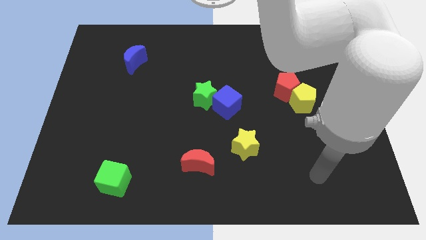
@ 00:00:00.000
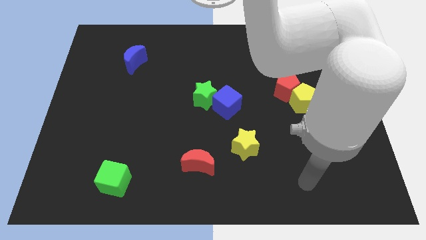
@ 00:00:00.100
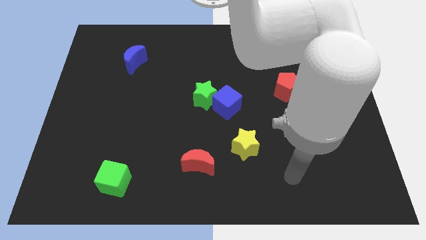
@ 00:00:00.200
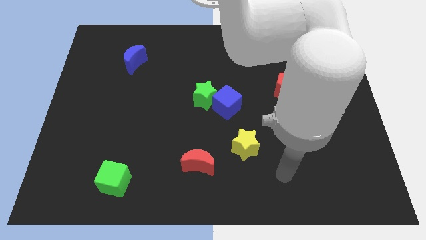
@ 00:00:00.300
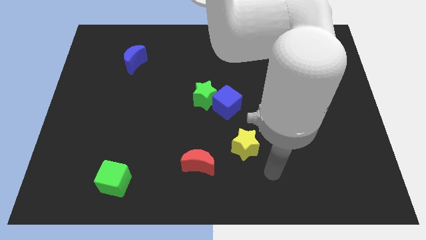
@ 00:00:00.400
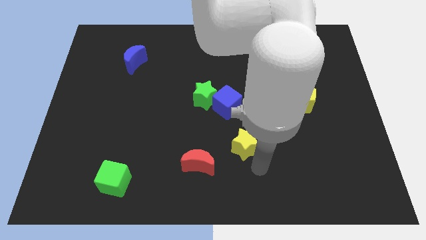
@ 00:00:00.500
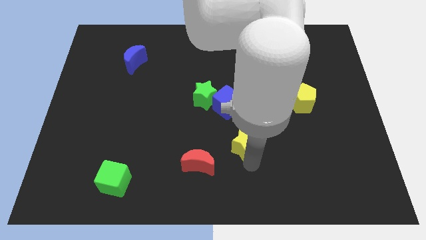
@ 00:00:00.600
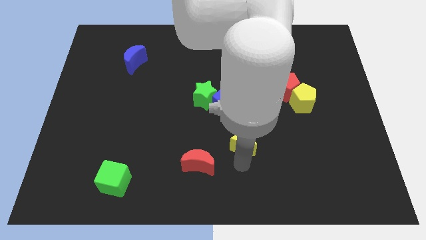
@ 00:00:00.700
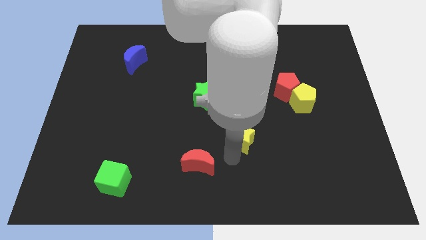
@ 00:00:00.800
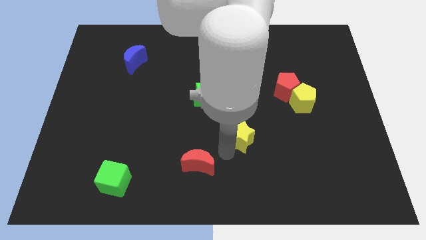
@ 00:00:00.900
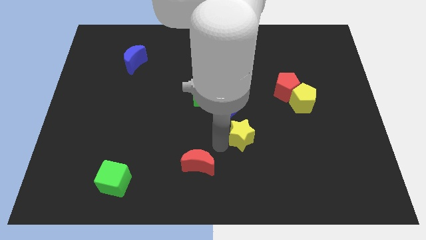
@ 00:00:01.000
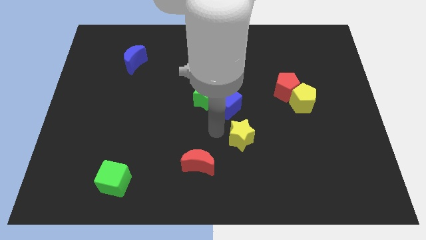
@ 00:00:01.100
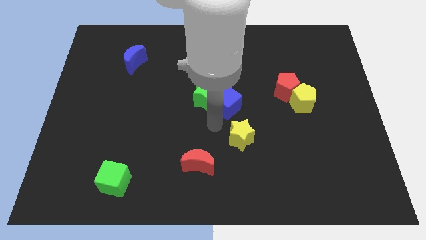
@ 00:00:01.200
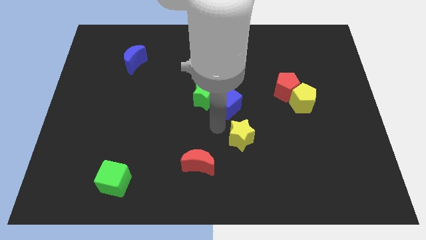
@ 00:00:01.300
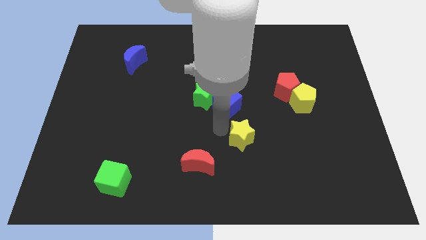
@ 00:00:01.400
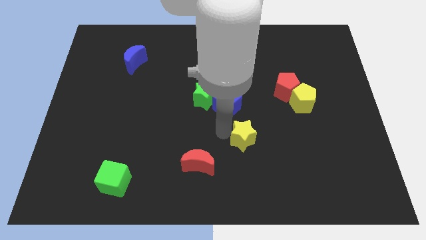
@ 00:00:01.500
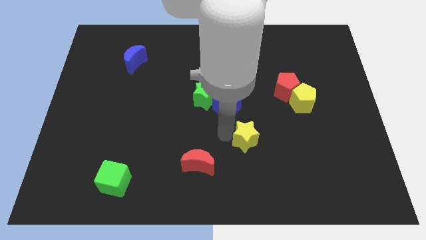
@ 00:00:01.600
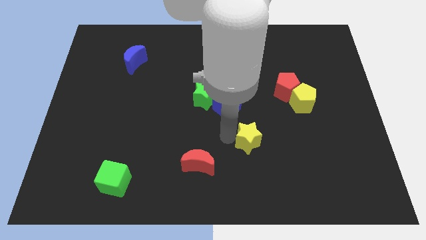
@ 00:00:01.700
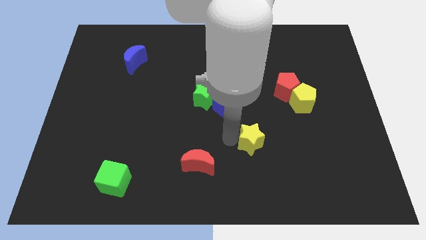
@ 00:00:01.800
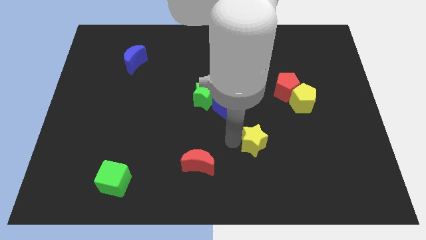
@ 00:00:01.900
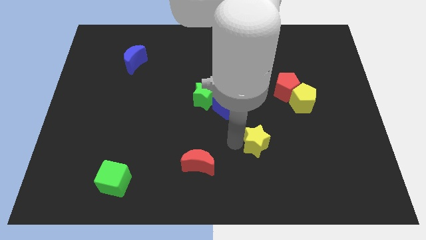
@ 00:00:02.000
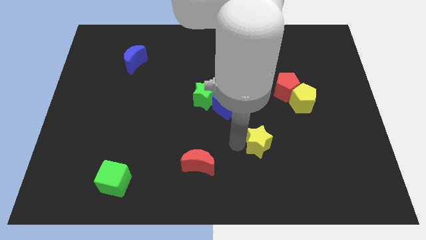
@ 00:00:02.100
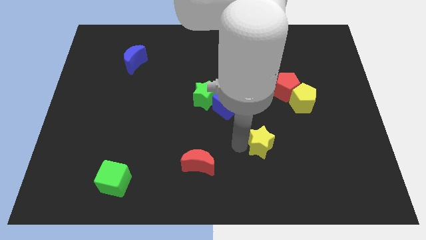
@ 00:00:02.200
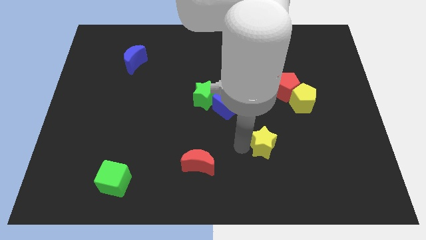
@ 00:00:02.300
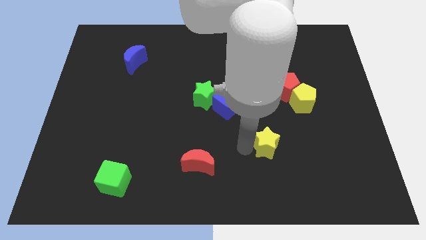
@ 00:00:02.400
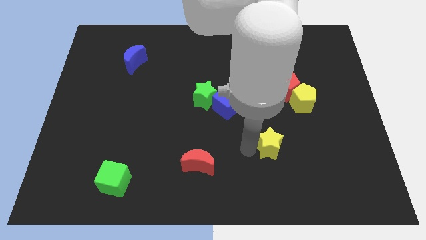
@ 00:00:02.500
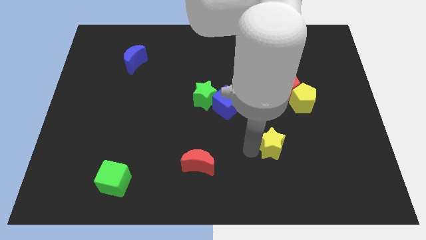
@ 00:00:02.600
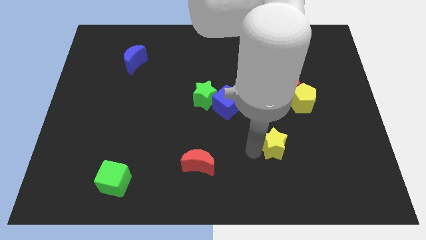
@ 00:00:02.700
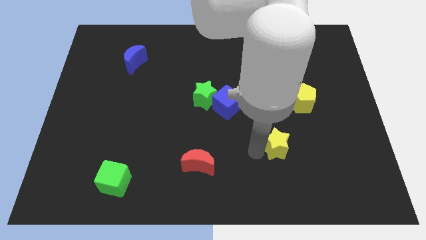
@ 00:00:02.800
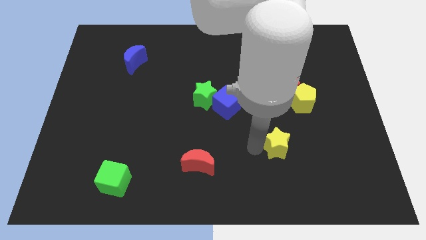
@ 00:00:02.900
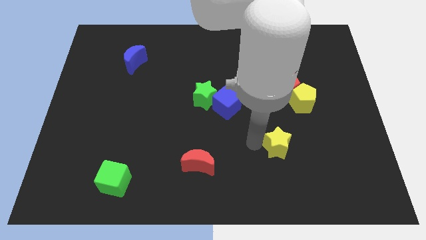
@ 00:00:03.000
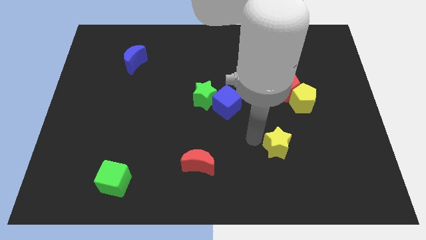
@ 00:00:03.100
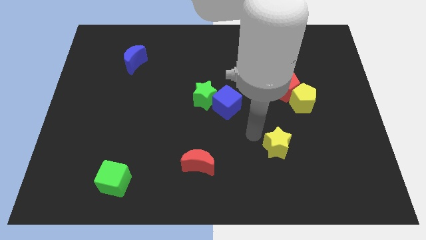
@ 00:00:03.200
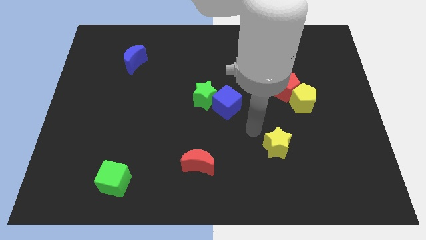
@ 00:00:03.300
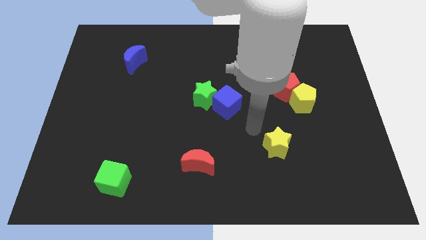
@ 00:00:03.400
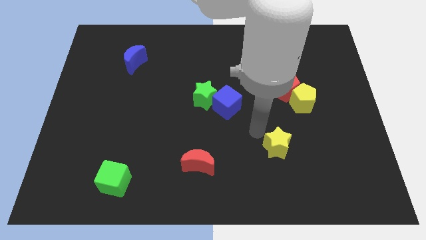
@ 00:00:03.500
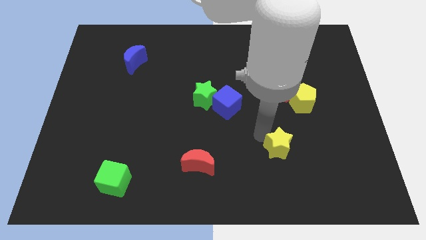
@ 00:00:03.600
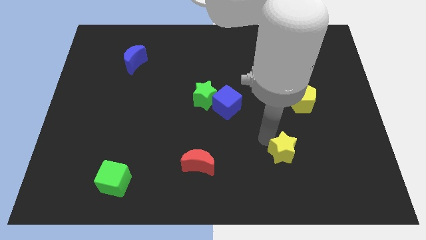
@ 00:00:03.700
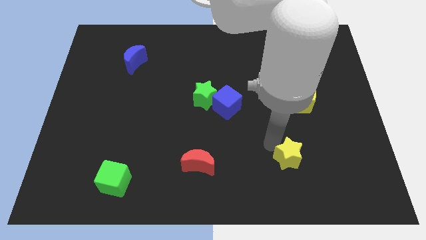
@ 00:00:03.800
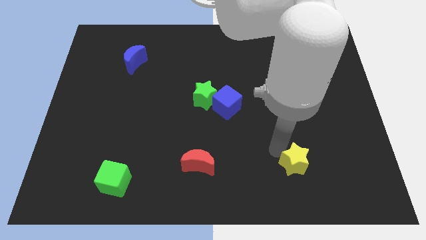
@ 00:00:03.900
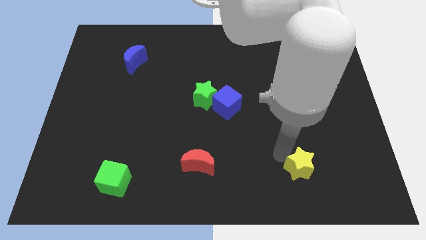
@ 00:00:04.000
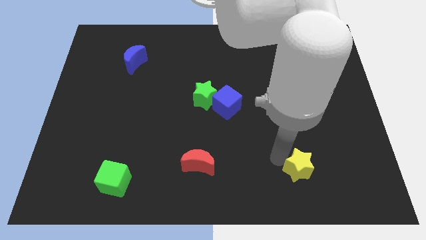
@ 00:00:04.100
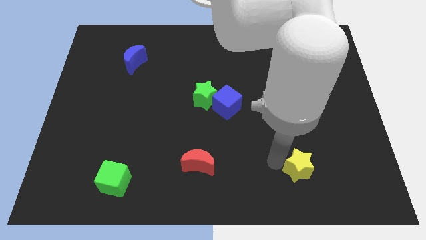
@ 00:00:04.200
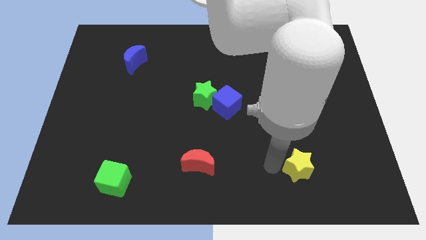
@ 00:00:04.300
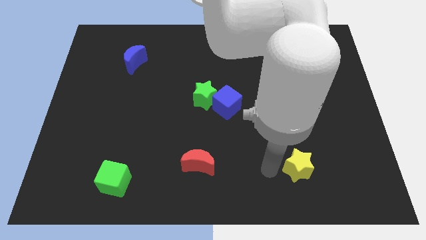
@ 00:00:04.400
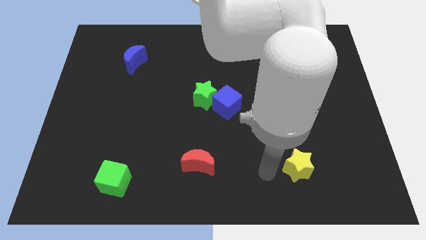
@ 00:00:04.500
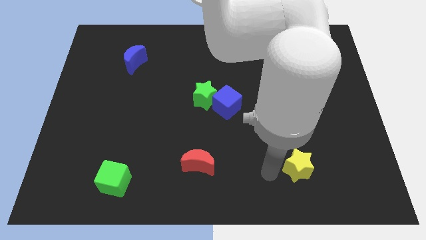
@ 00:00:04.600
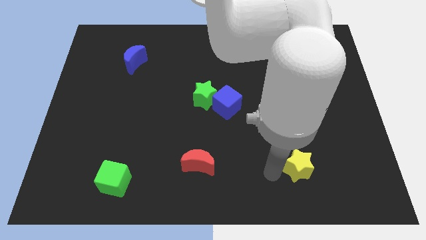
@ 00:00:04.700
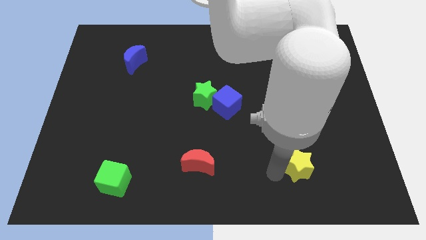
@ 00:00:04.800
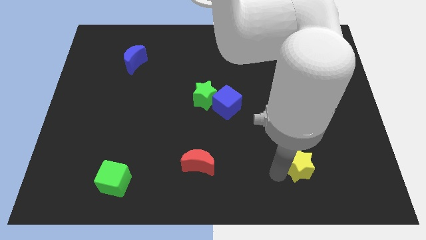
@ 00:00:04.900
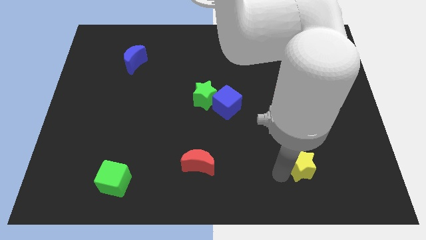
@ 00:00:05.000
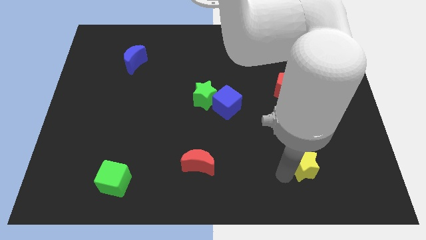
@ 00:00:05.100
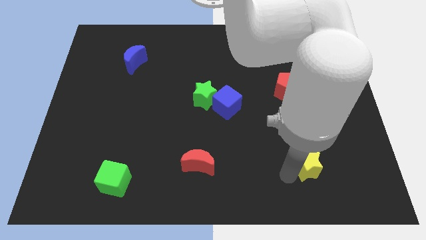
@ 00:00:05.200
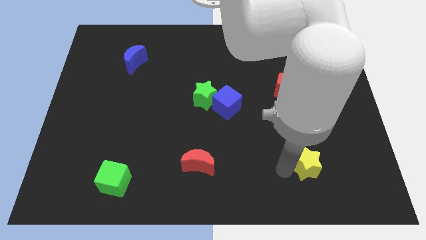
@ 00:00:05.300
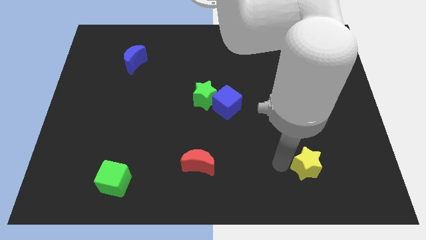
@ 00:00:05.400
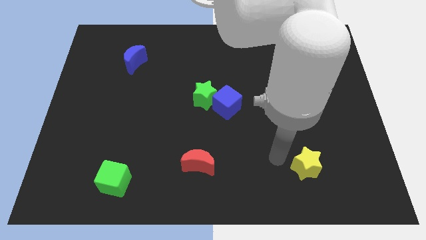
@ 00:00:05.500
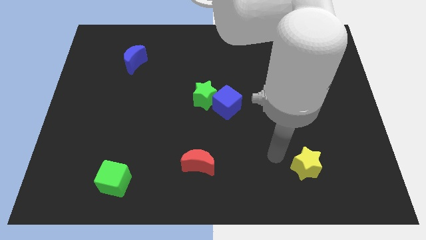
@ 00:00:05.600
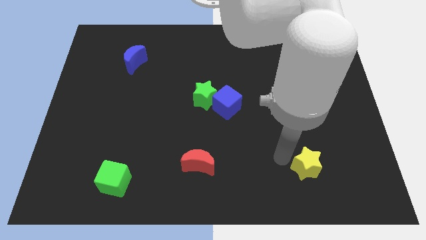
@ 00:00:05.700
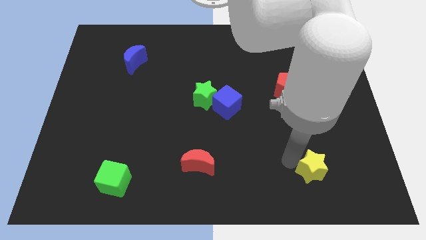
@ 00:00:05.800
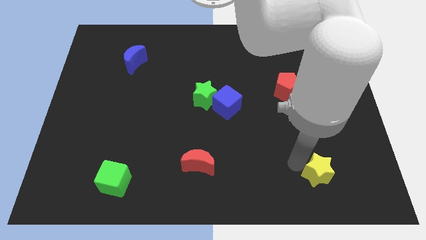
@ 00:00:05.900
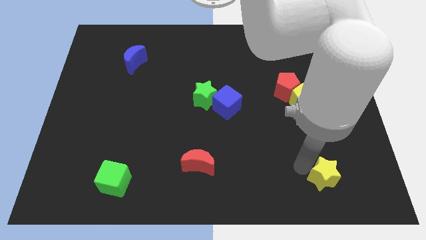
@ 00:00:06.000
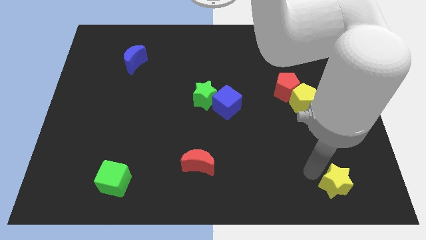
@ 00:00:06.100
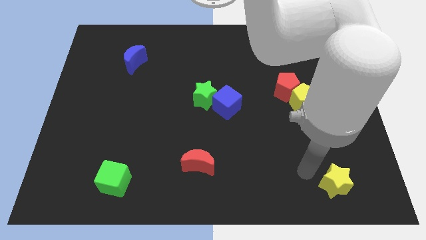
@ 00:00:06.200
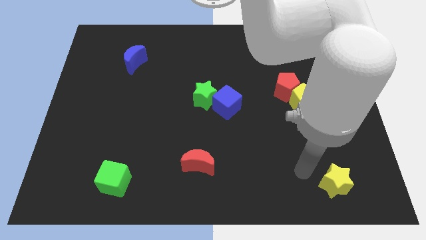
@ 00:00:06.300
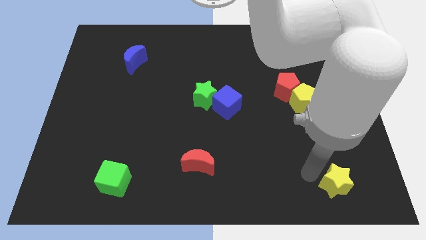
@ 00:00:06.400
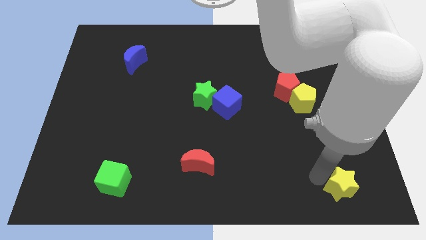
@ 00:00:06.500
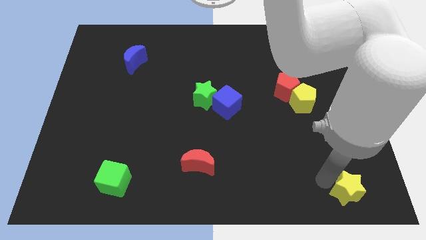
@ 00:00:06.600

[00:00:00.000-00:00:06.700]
push the yellow star to the bottom right of the board

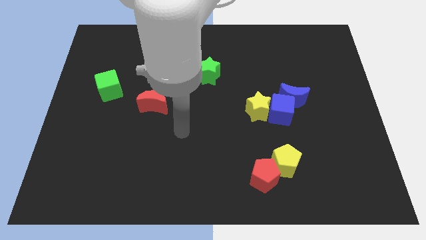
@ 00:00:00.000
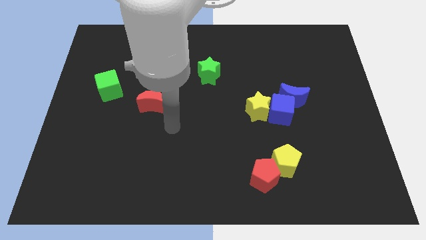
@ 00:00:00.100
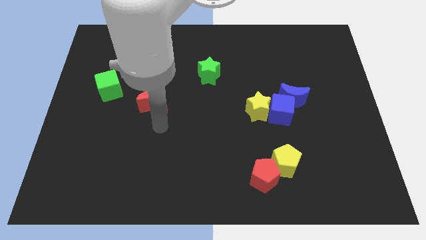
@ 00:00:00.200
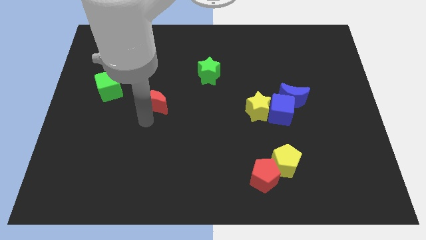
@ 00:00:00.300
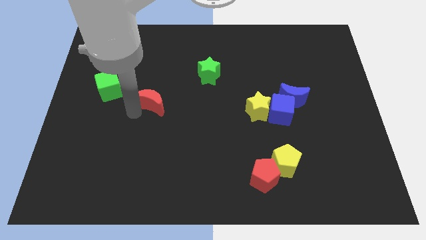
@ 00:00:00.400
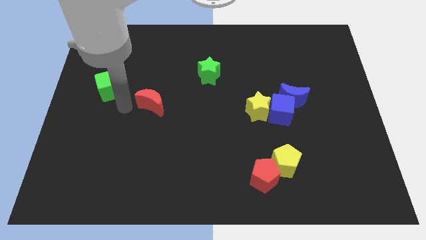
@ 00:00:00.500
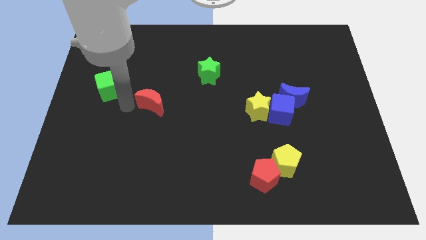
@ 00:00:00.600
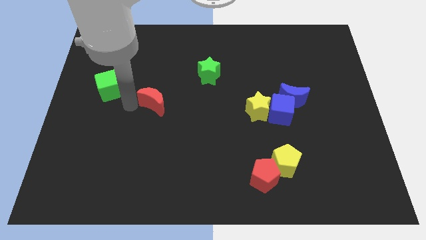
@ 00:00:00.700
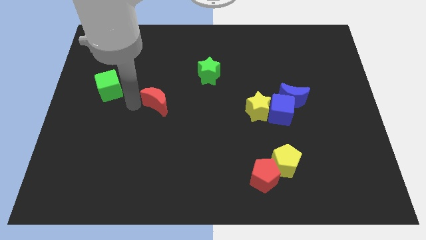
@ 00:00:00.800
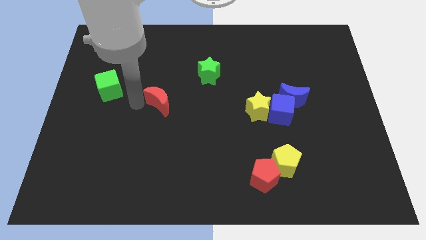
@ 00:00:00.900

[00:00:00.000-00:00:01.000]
move the red moon to the center of the board
